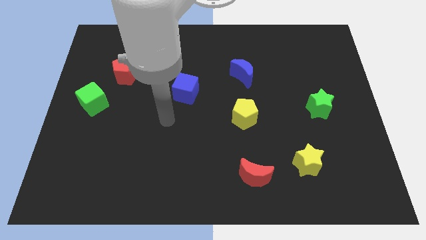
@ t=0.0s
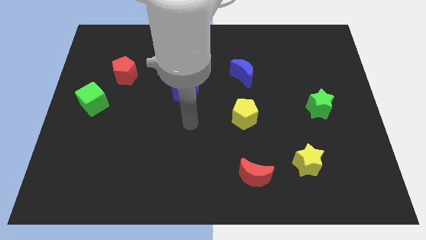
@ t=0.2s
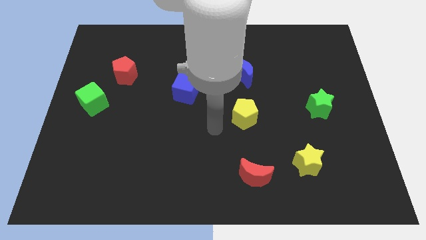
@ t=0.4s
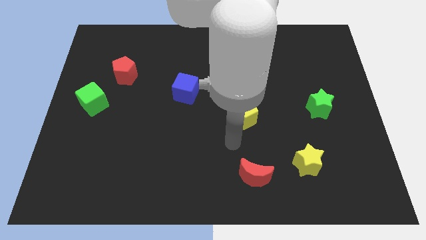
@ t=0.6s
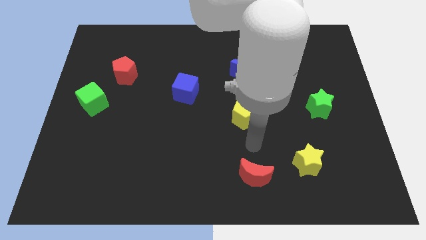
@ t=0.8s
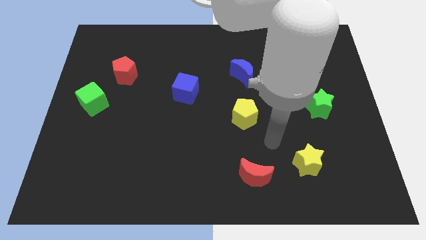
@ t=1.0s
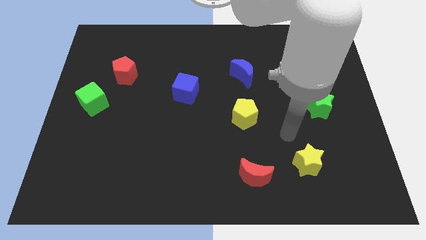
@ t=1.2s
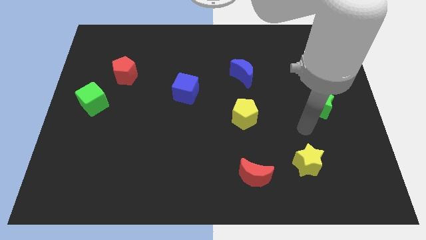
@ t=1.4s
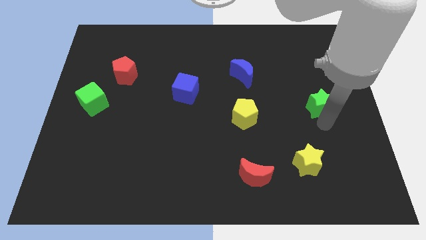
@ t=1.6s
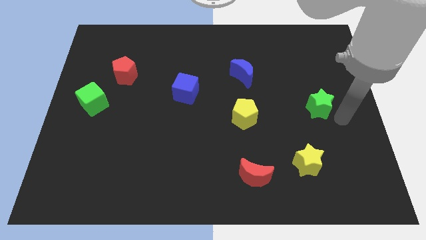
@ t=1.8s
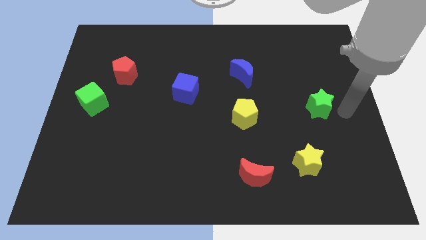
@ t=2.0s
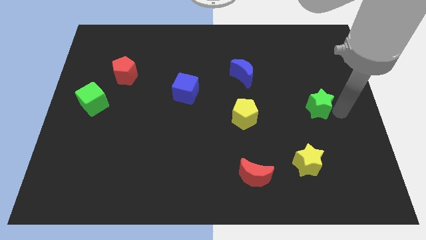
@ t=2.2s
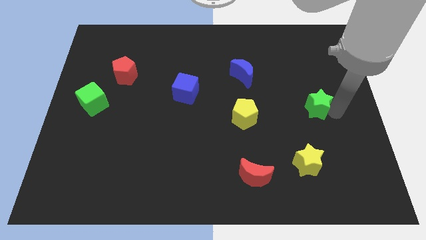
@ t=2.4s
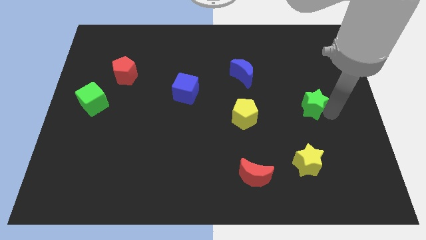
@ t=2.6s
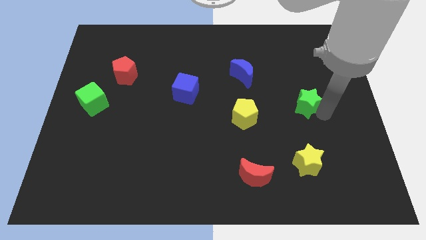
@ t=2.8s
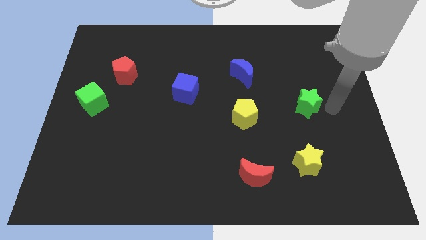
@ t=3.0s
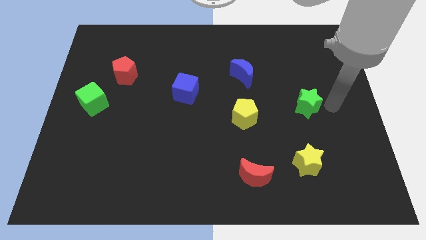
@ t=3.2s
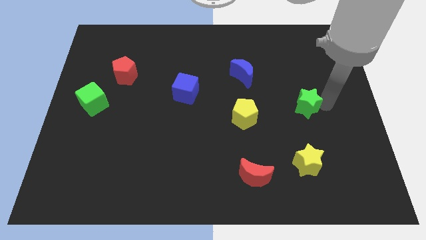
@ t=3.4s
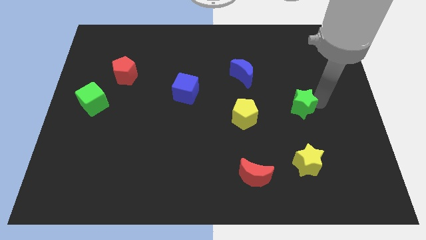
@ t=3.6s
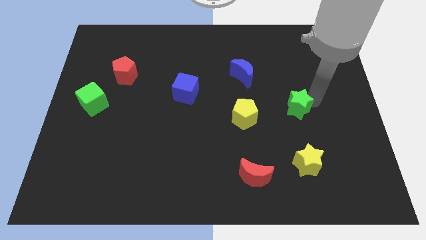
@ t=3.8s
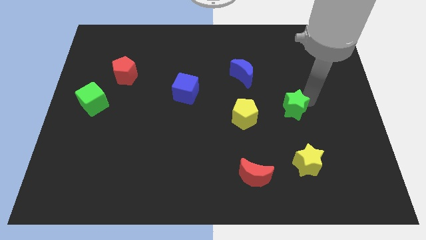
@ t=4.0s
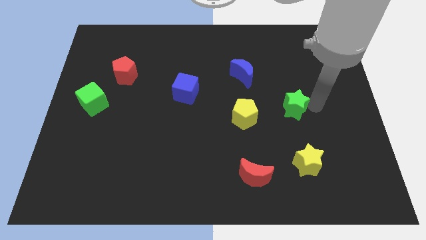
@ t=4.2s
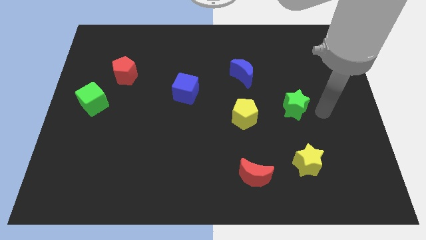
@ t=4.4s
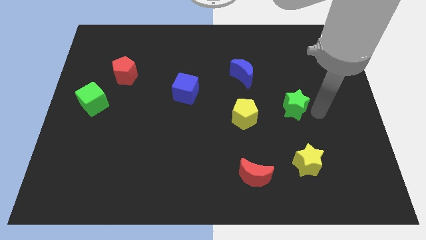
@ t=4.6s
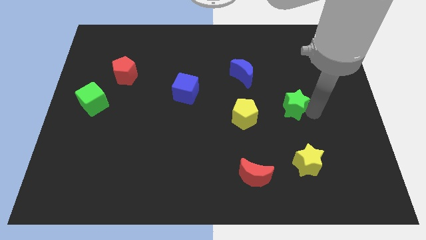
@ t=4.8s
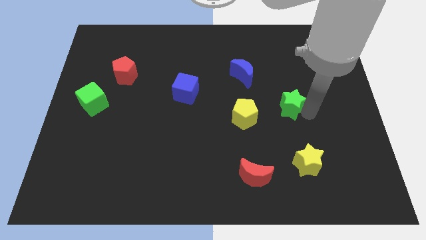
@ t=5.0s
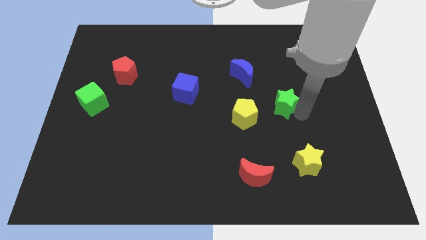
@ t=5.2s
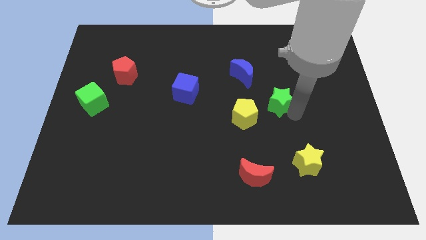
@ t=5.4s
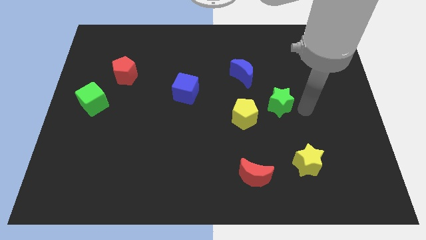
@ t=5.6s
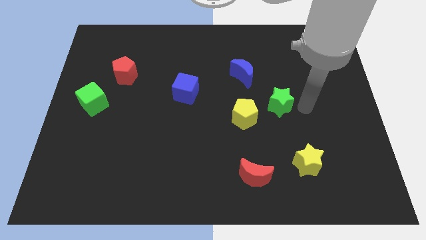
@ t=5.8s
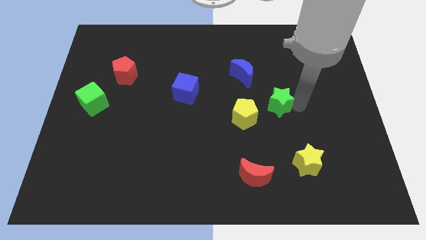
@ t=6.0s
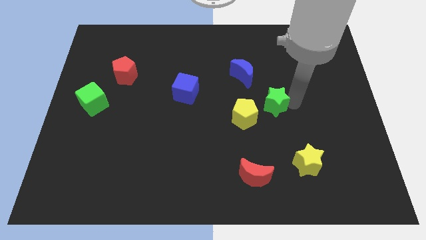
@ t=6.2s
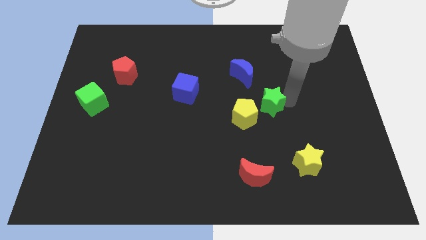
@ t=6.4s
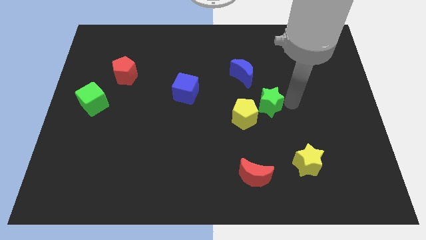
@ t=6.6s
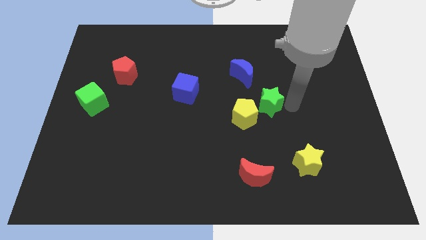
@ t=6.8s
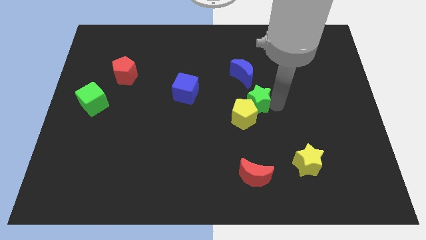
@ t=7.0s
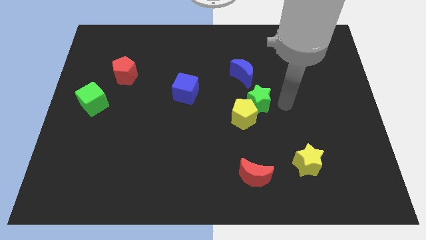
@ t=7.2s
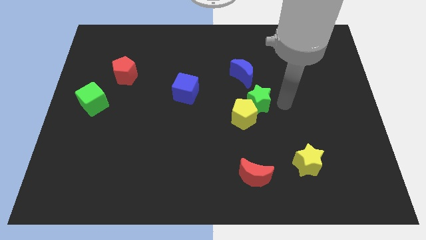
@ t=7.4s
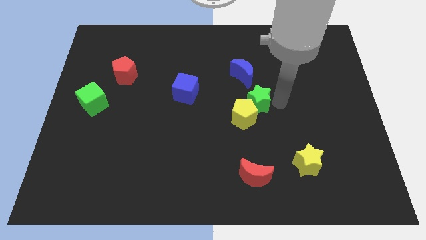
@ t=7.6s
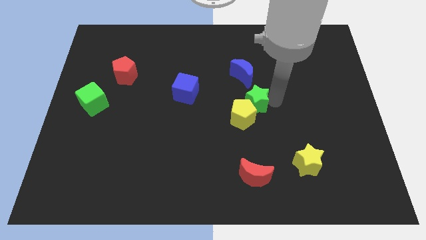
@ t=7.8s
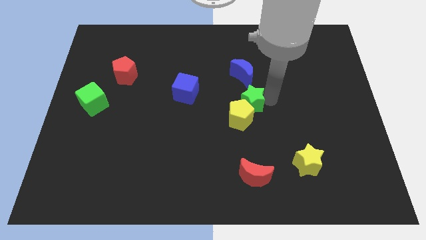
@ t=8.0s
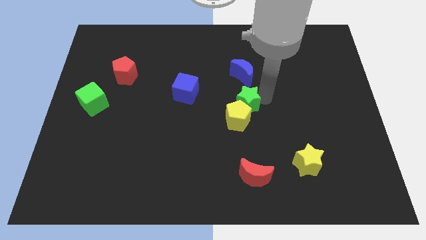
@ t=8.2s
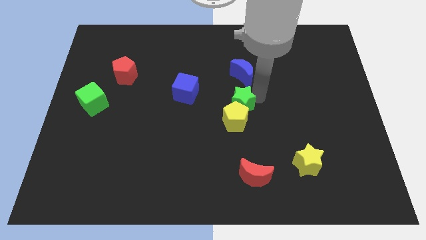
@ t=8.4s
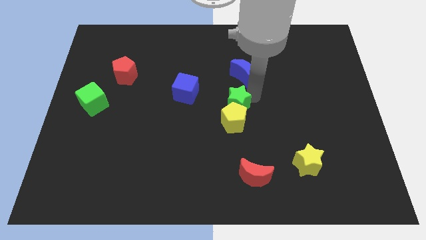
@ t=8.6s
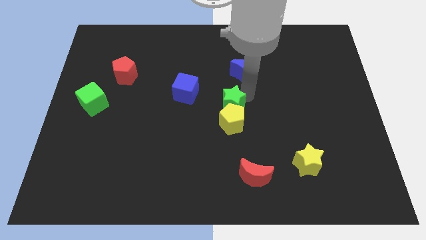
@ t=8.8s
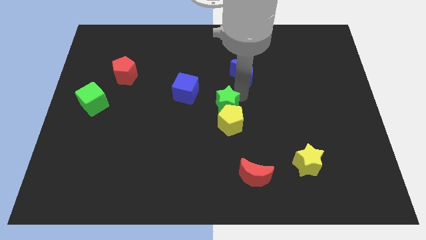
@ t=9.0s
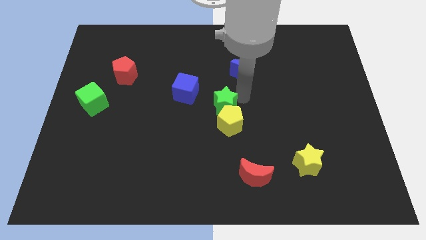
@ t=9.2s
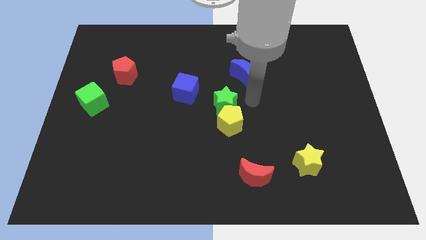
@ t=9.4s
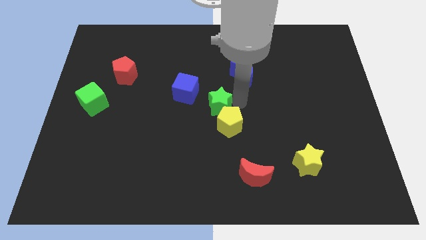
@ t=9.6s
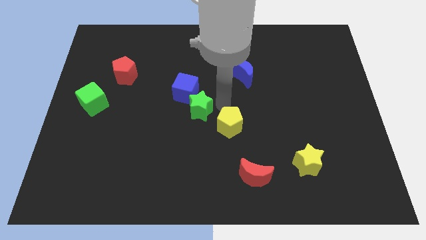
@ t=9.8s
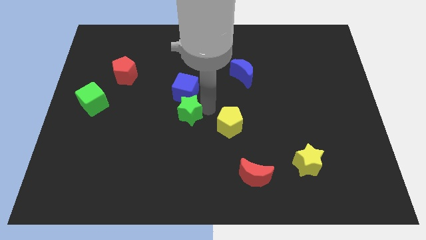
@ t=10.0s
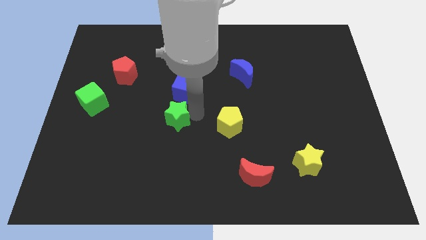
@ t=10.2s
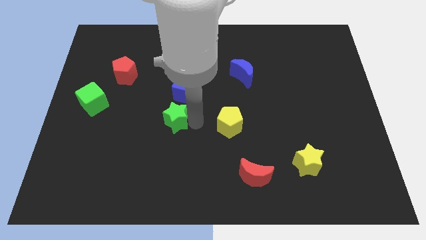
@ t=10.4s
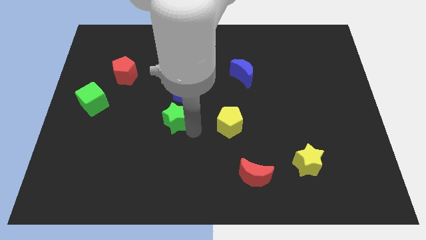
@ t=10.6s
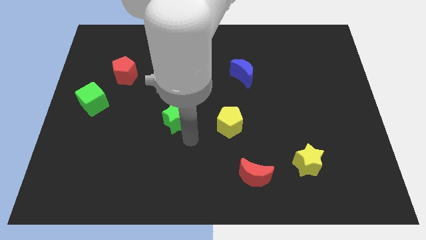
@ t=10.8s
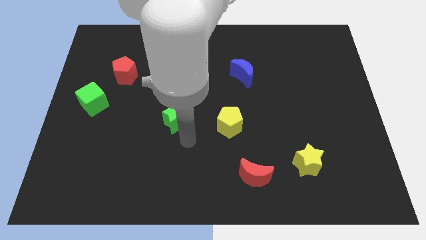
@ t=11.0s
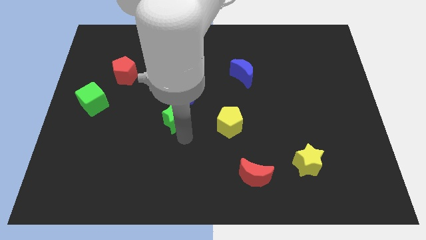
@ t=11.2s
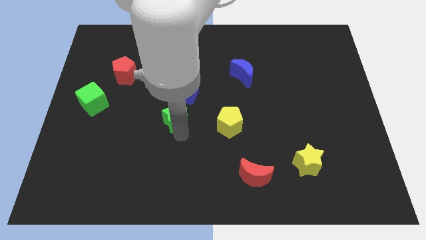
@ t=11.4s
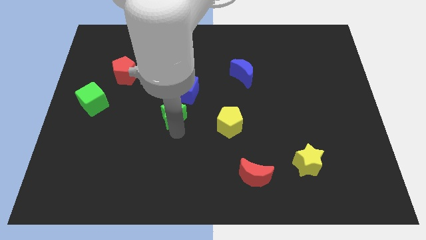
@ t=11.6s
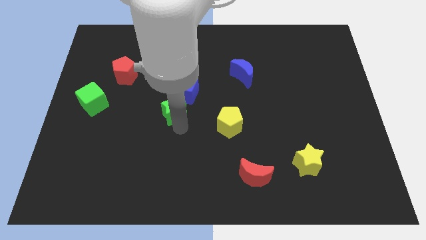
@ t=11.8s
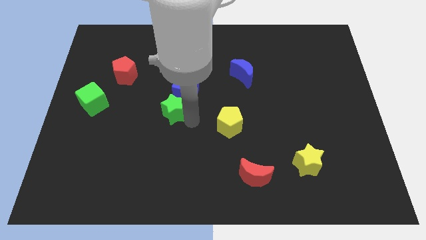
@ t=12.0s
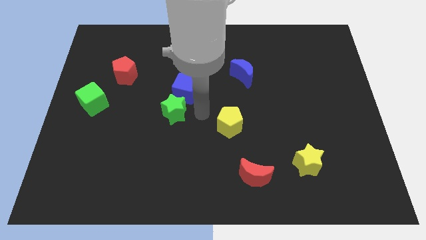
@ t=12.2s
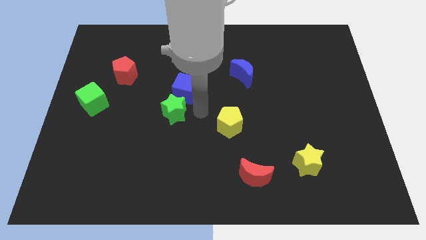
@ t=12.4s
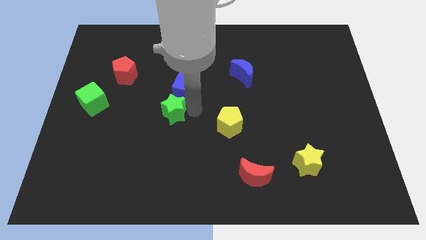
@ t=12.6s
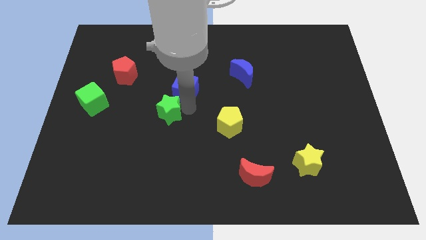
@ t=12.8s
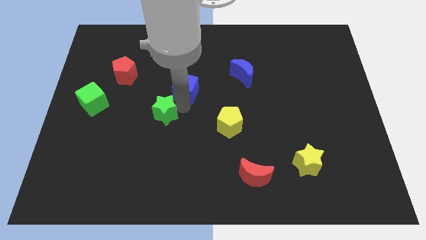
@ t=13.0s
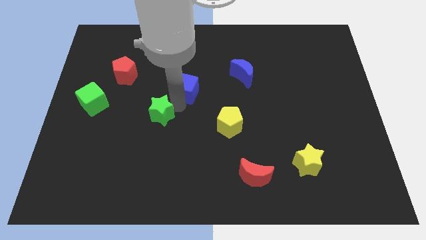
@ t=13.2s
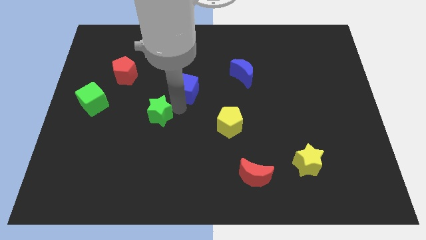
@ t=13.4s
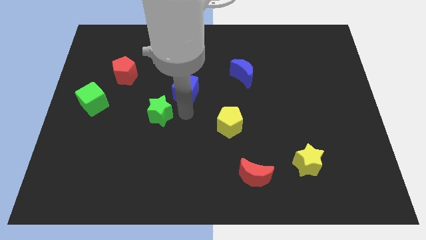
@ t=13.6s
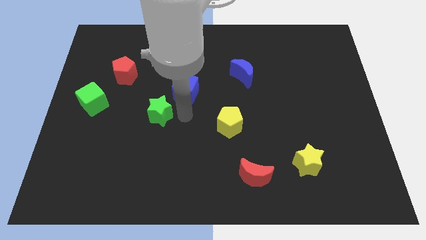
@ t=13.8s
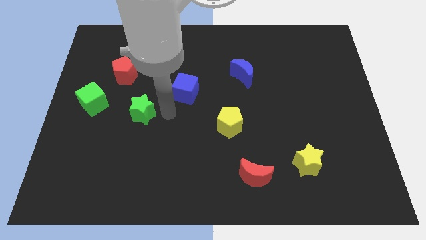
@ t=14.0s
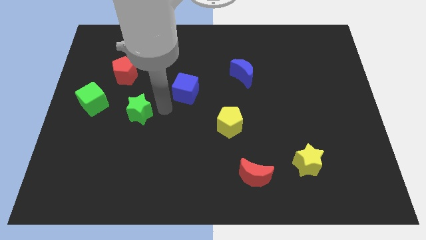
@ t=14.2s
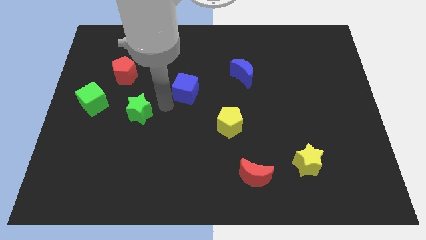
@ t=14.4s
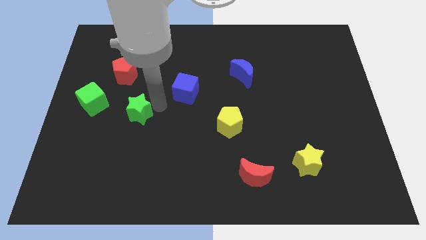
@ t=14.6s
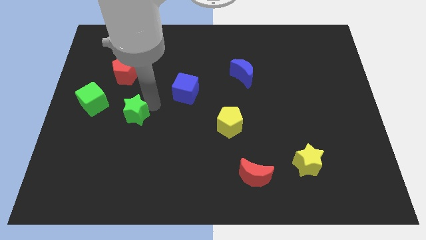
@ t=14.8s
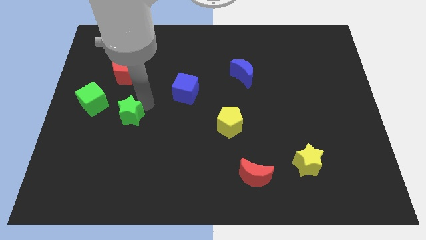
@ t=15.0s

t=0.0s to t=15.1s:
push the green star to the bottom right of the green cube
